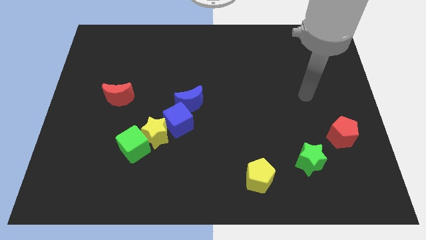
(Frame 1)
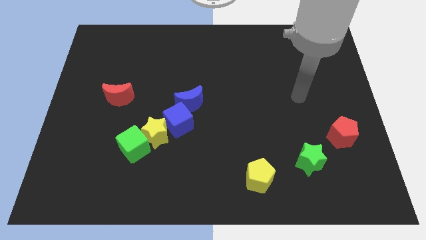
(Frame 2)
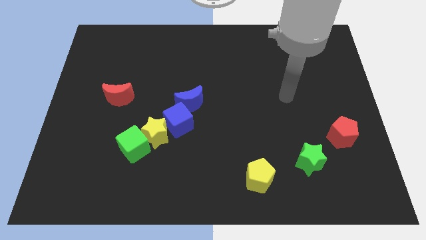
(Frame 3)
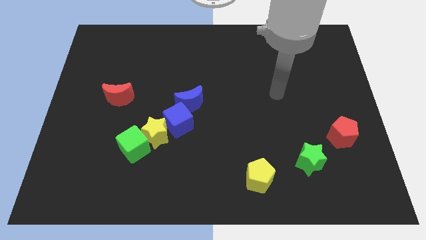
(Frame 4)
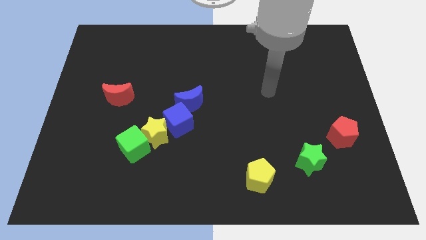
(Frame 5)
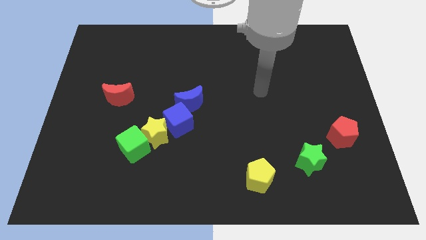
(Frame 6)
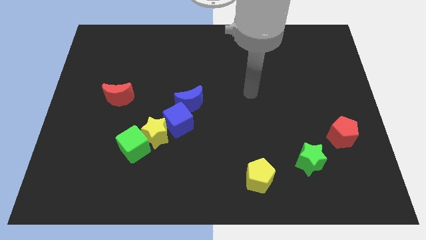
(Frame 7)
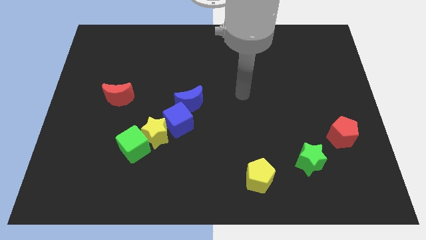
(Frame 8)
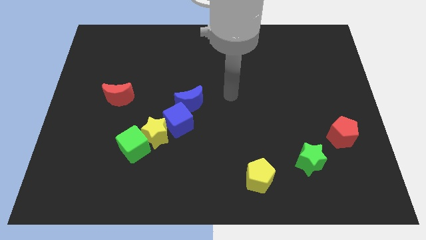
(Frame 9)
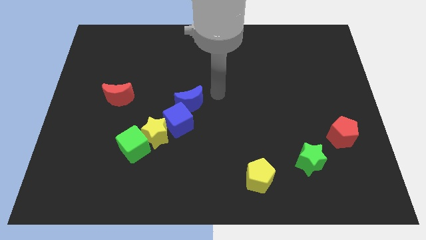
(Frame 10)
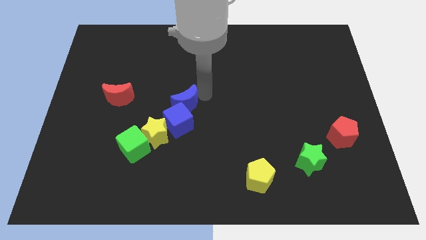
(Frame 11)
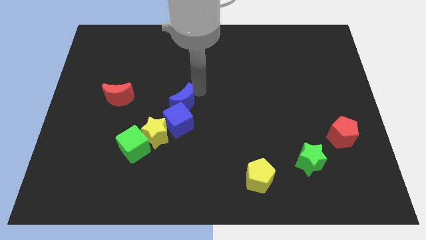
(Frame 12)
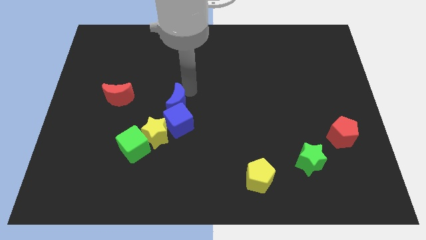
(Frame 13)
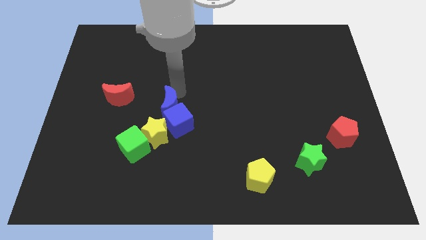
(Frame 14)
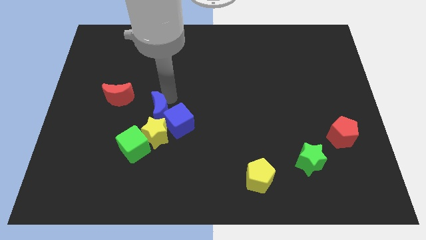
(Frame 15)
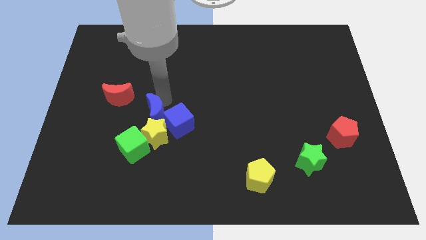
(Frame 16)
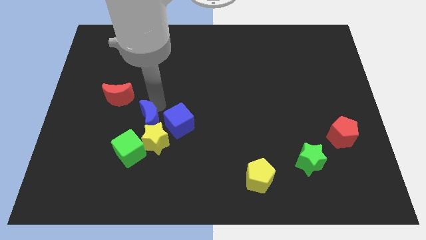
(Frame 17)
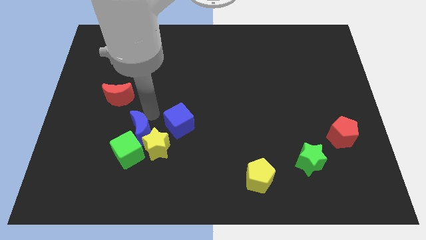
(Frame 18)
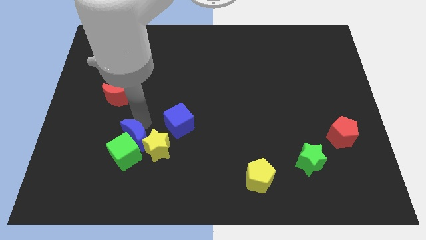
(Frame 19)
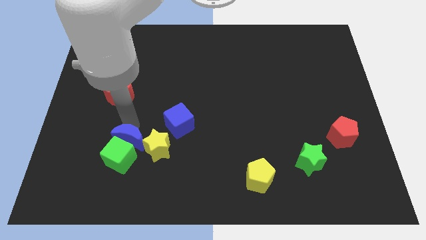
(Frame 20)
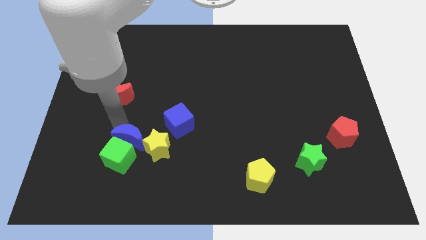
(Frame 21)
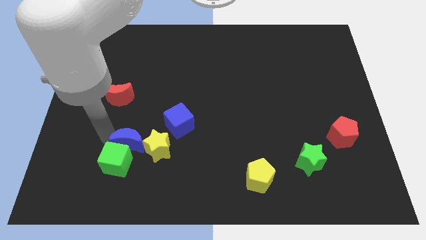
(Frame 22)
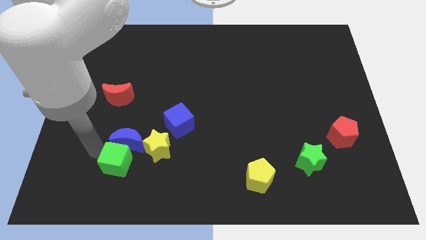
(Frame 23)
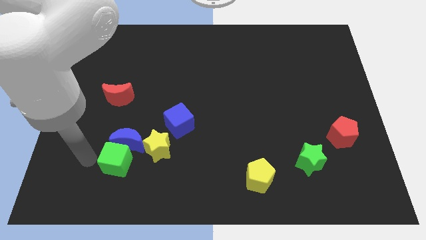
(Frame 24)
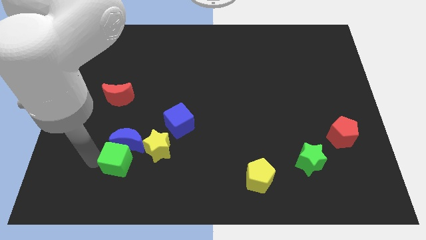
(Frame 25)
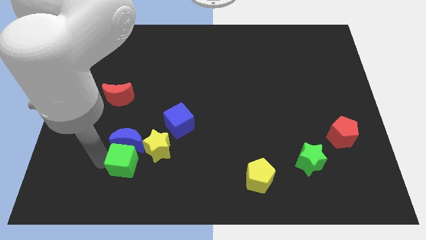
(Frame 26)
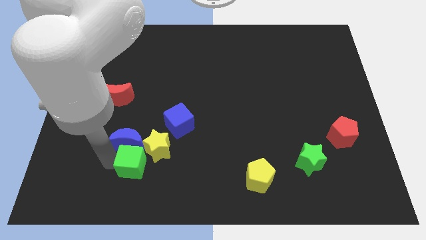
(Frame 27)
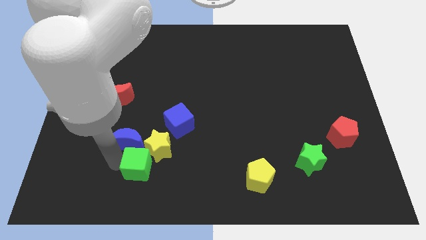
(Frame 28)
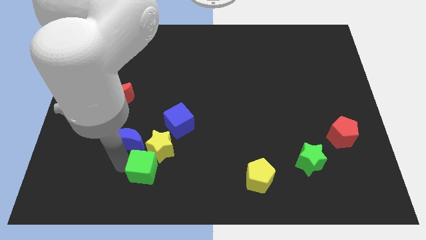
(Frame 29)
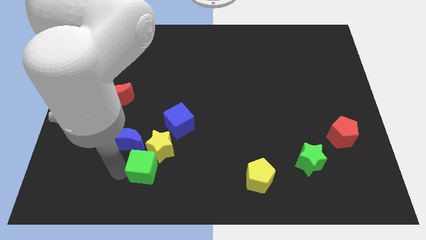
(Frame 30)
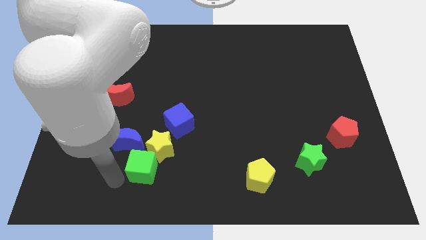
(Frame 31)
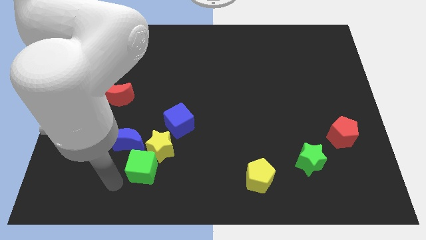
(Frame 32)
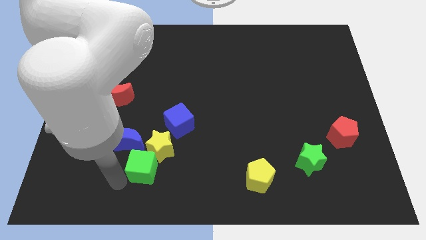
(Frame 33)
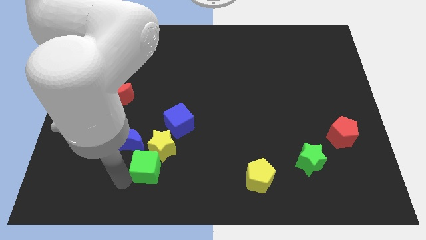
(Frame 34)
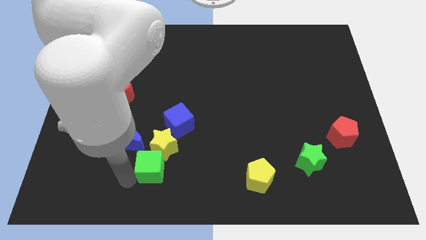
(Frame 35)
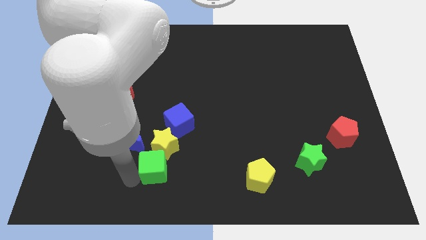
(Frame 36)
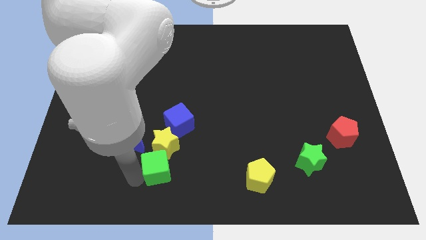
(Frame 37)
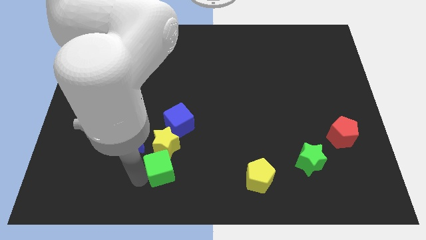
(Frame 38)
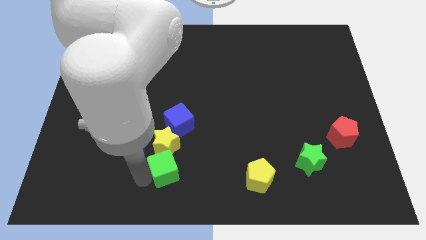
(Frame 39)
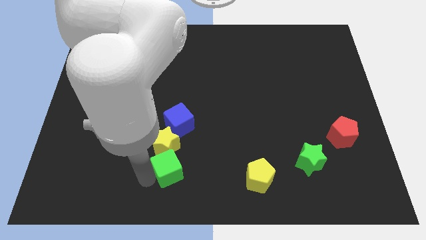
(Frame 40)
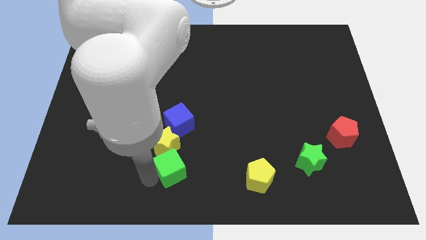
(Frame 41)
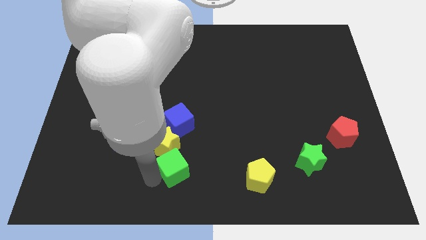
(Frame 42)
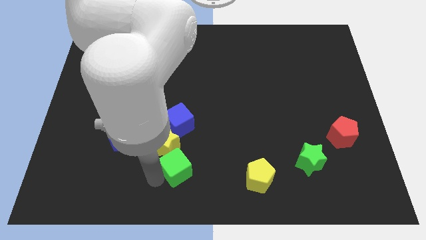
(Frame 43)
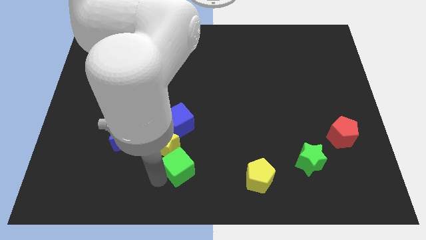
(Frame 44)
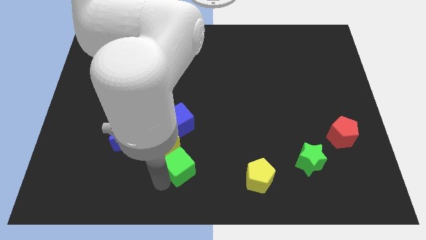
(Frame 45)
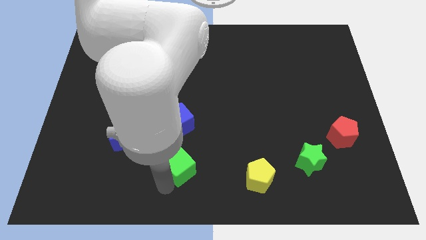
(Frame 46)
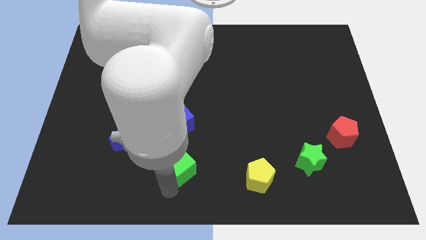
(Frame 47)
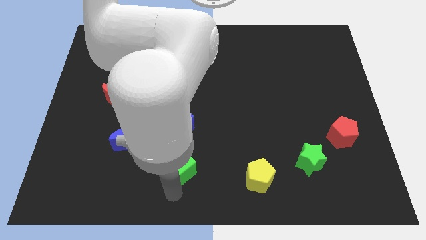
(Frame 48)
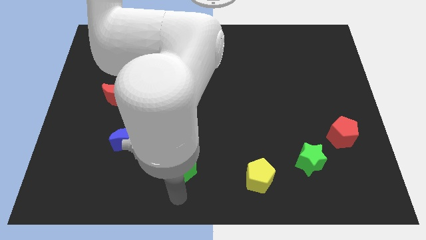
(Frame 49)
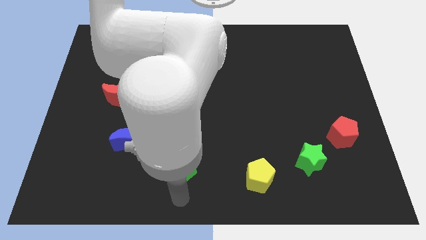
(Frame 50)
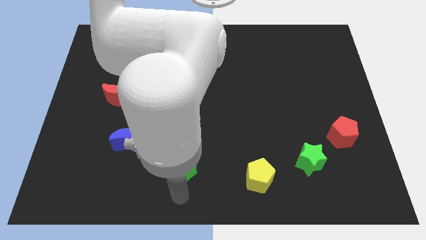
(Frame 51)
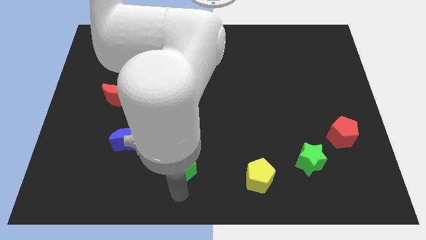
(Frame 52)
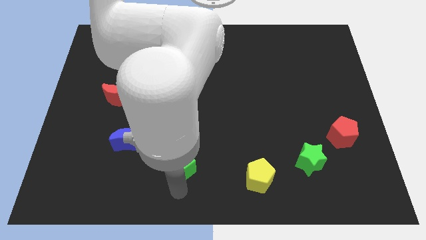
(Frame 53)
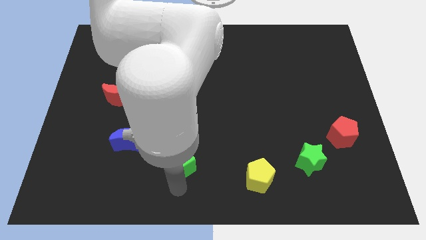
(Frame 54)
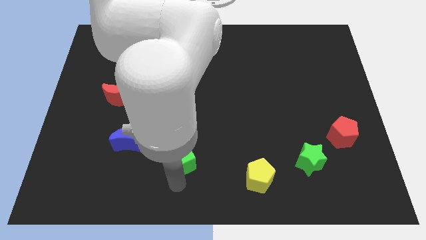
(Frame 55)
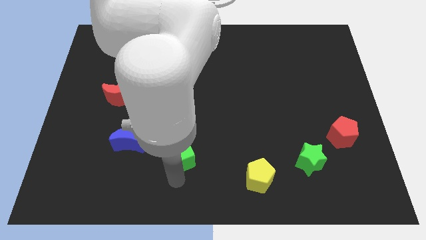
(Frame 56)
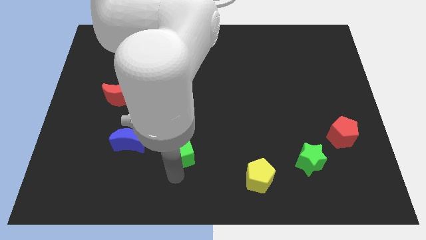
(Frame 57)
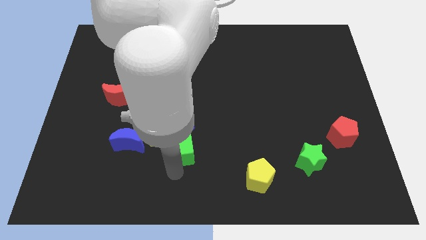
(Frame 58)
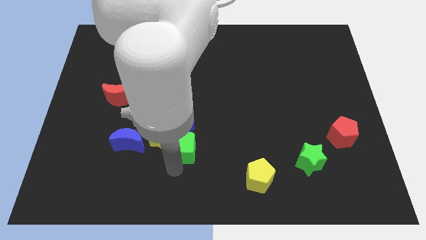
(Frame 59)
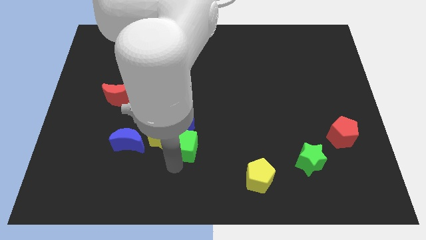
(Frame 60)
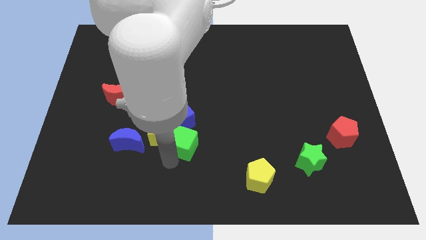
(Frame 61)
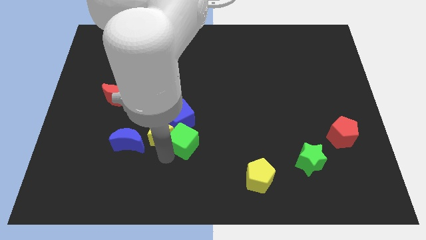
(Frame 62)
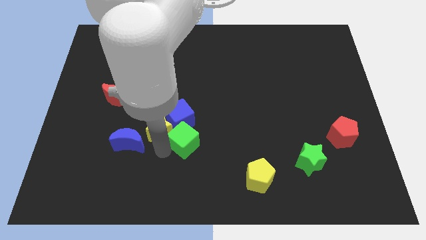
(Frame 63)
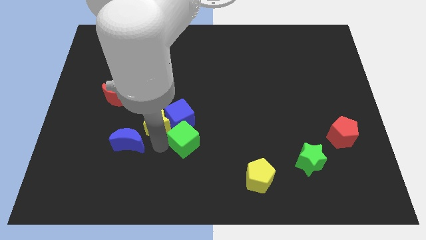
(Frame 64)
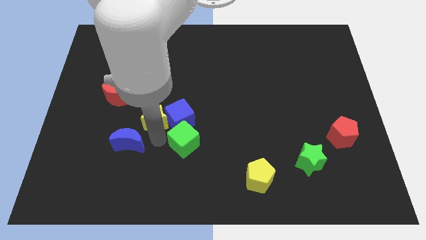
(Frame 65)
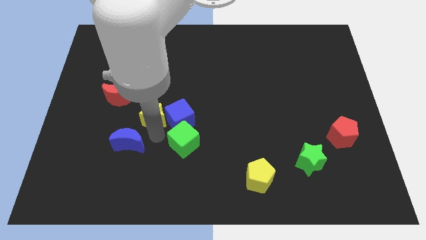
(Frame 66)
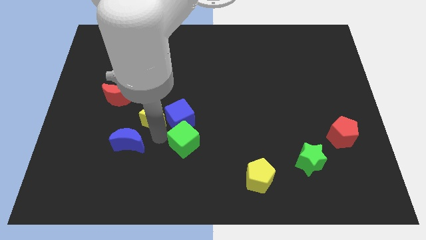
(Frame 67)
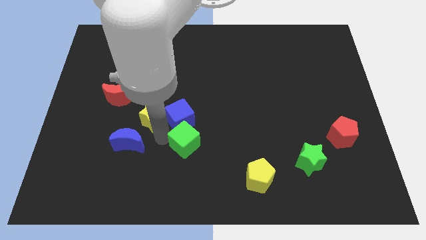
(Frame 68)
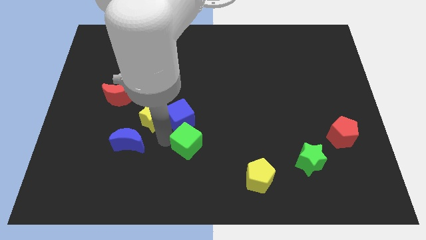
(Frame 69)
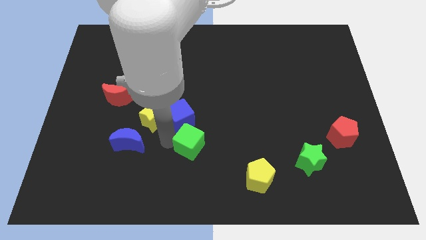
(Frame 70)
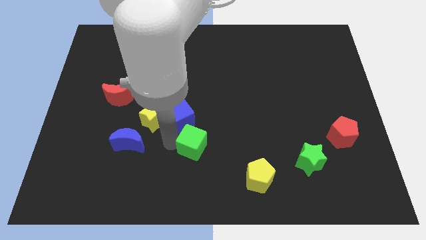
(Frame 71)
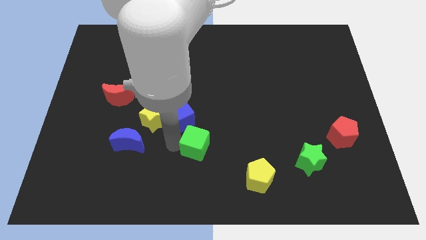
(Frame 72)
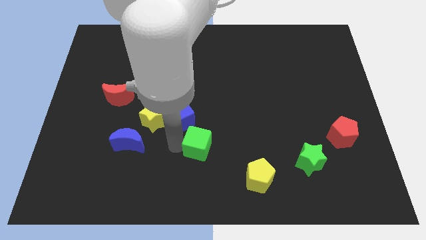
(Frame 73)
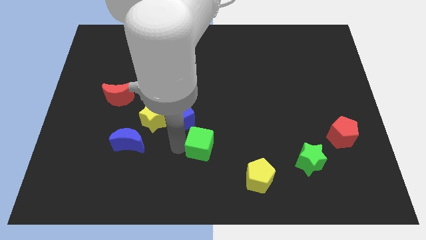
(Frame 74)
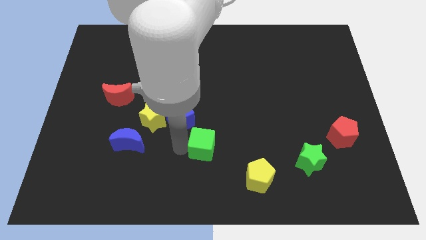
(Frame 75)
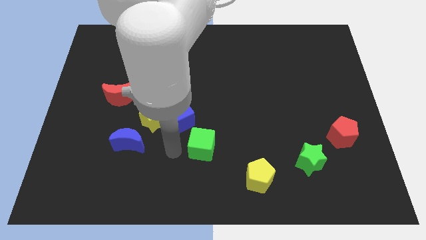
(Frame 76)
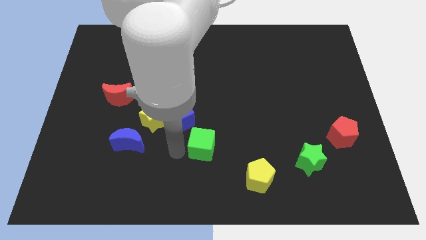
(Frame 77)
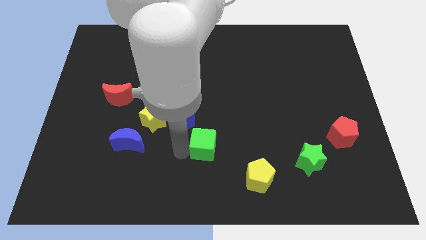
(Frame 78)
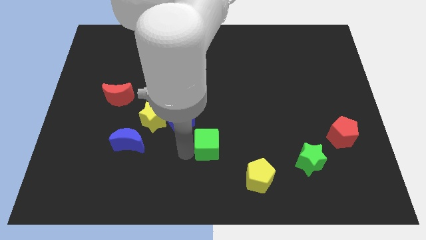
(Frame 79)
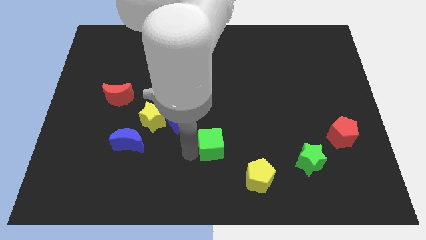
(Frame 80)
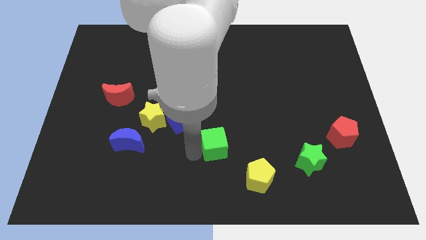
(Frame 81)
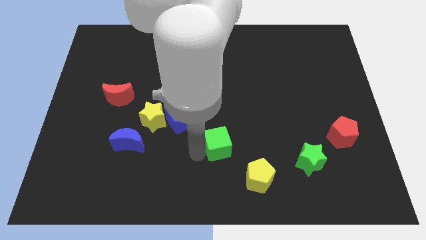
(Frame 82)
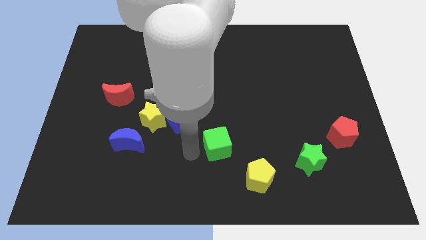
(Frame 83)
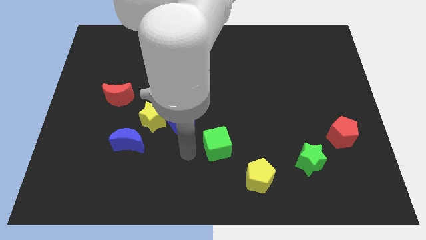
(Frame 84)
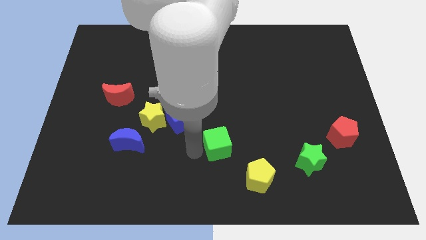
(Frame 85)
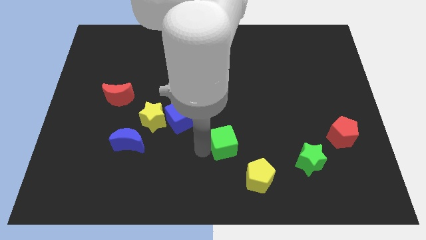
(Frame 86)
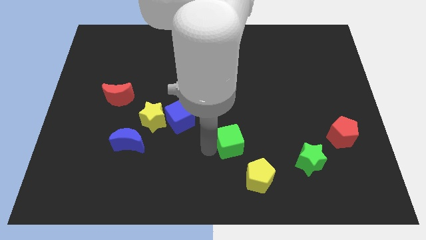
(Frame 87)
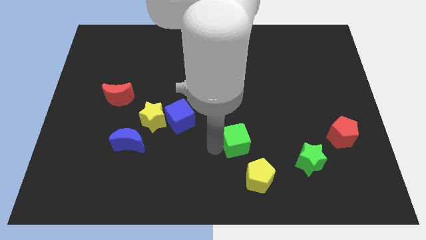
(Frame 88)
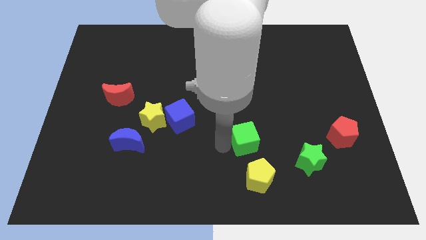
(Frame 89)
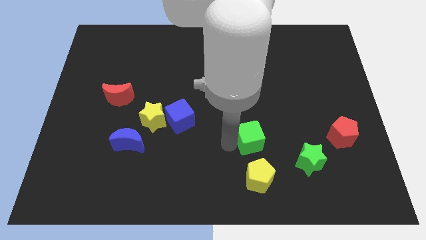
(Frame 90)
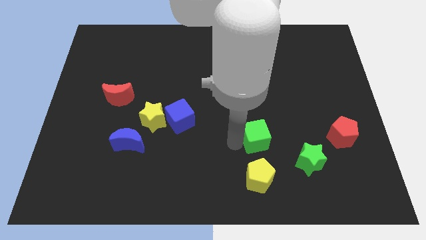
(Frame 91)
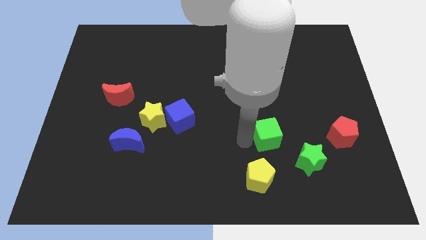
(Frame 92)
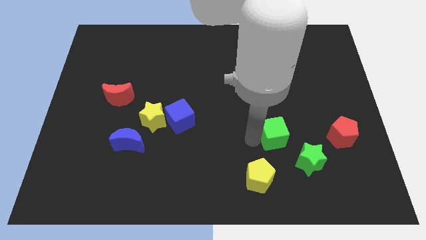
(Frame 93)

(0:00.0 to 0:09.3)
push the green cube to the left side of the red pentagon
